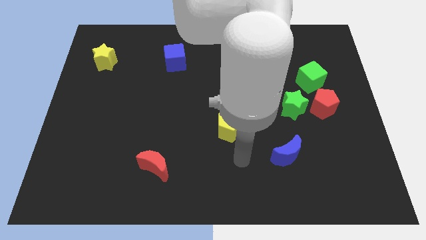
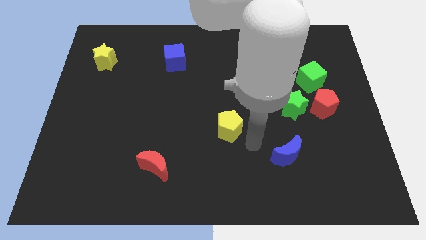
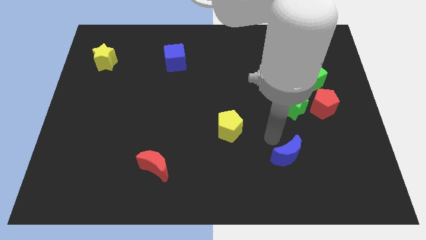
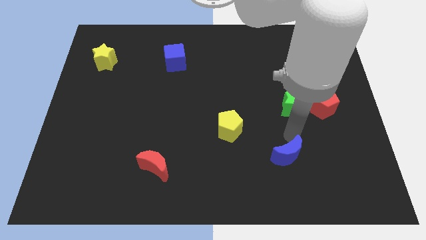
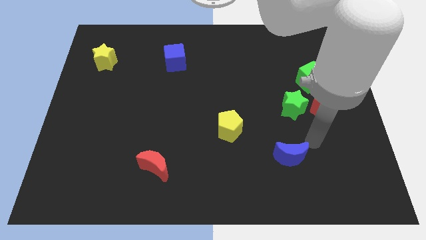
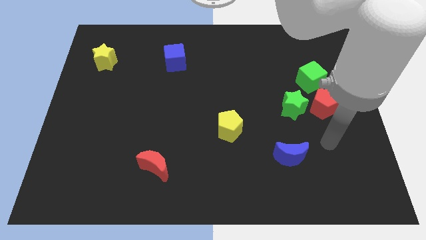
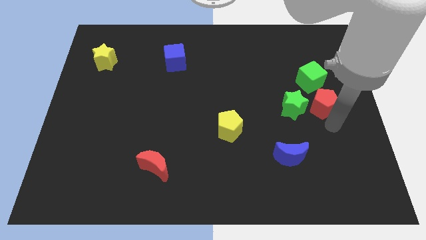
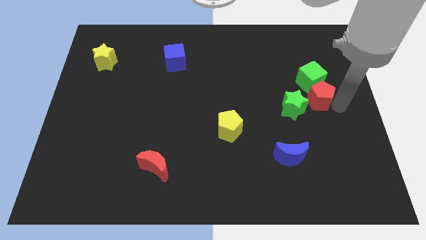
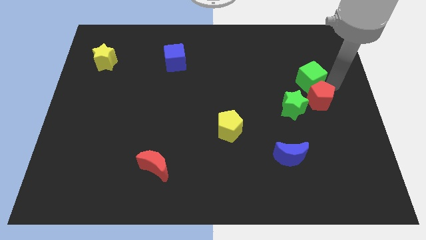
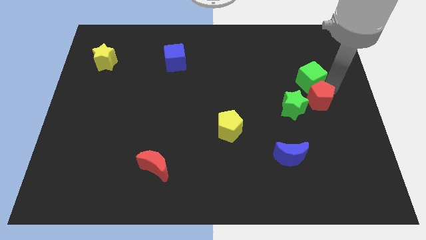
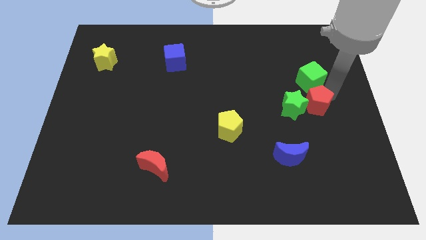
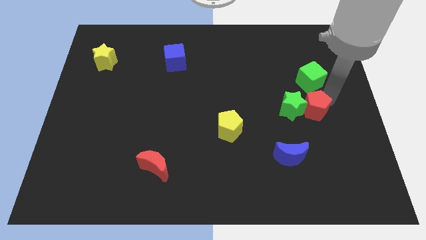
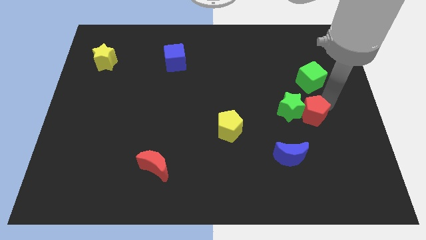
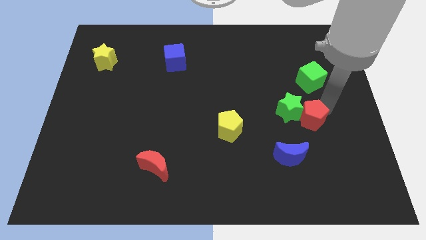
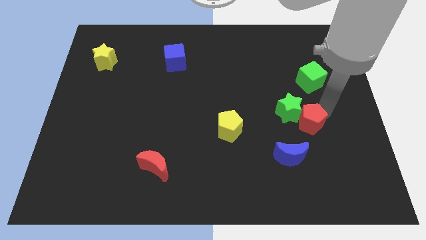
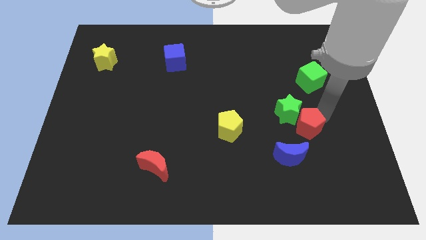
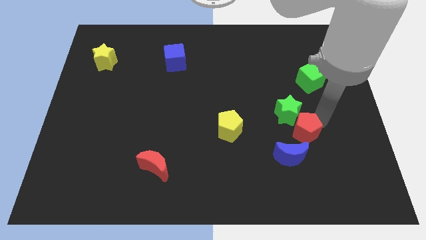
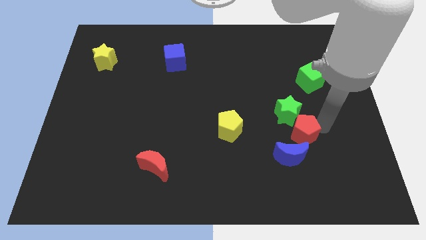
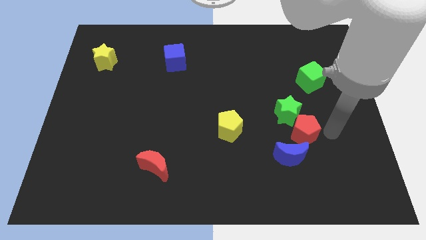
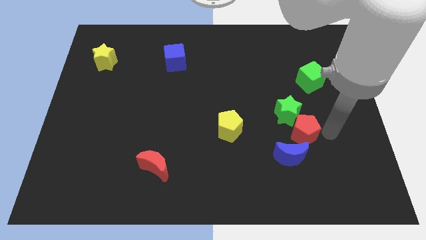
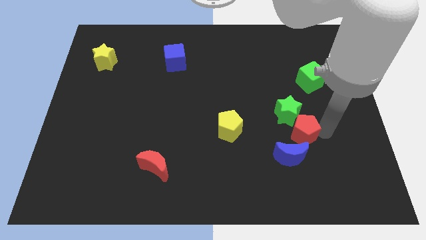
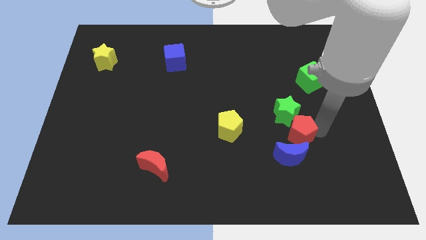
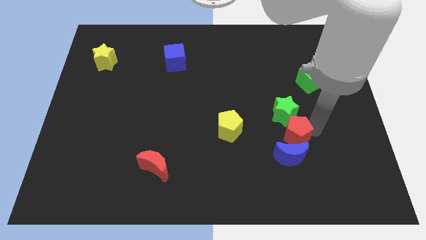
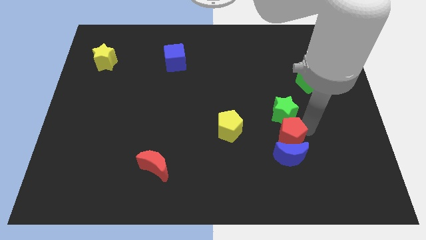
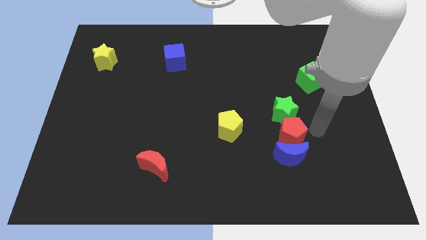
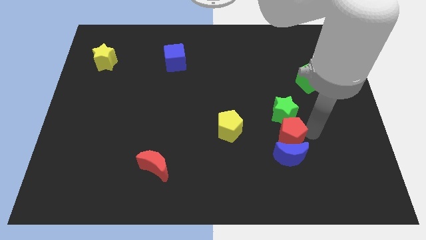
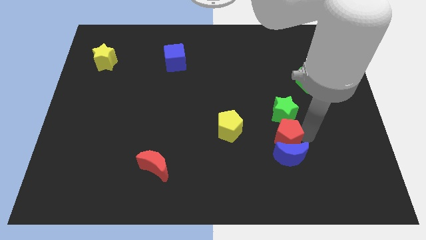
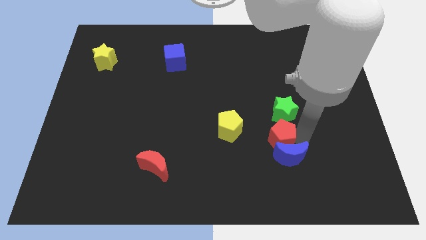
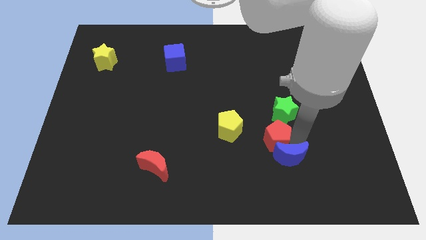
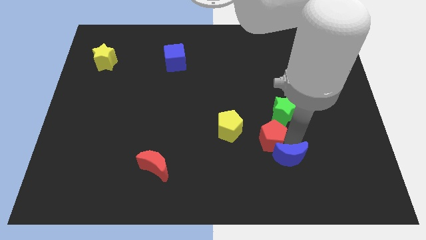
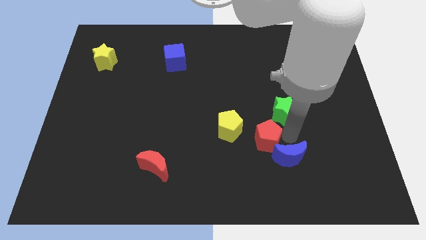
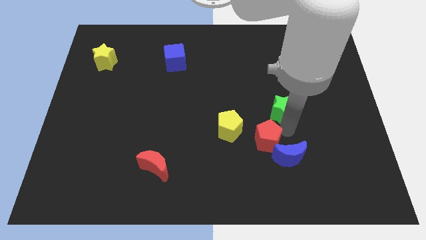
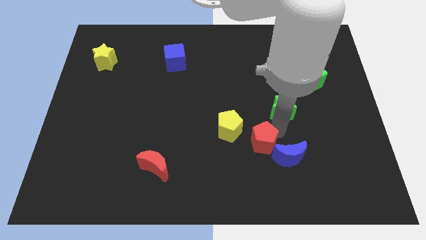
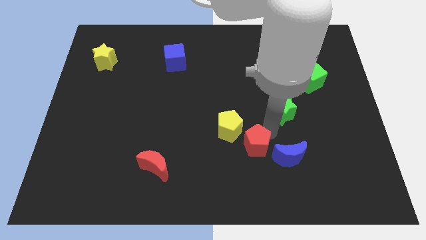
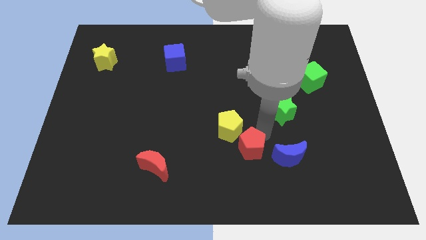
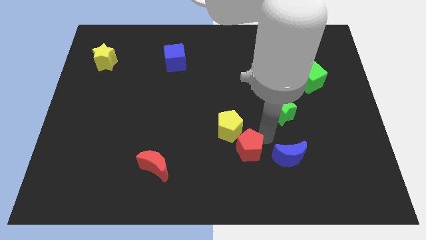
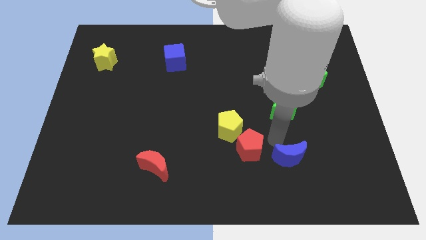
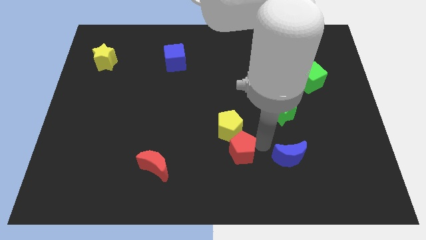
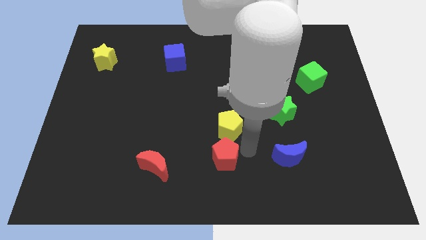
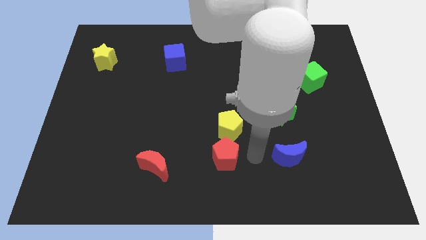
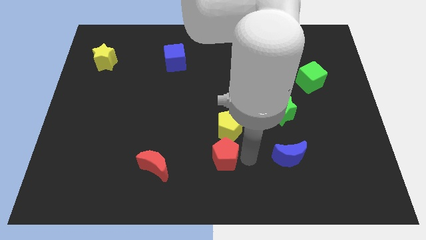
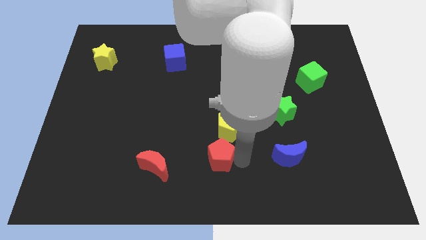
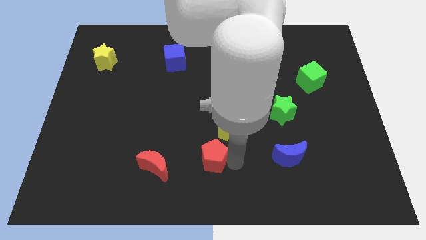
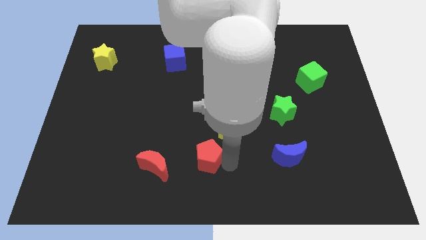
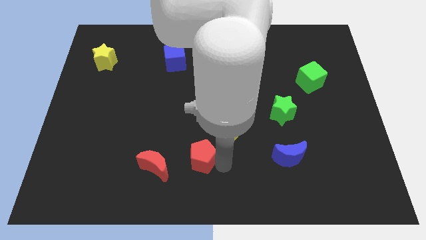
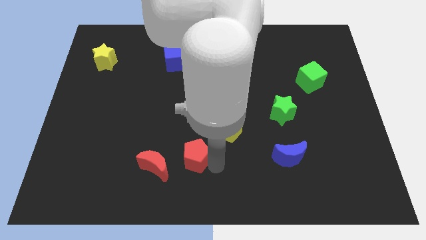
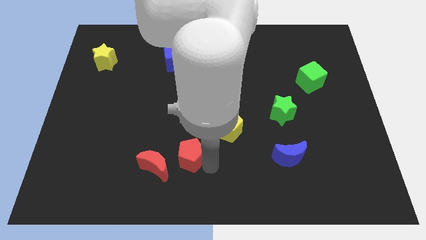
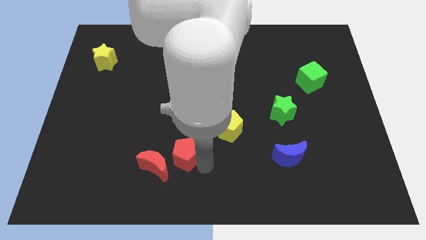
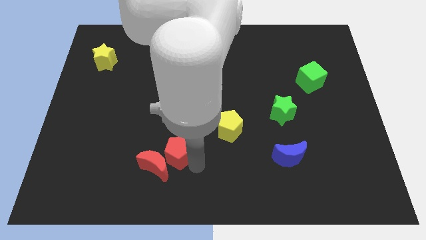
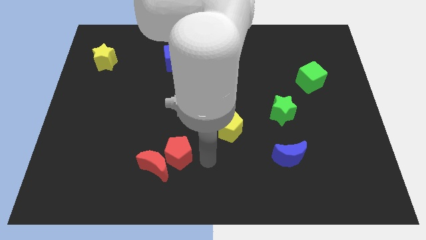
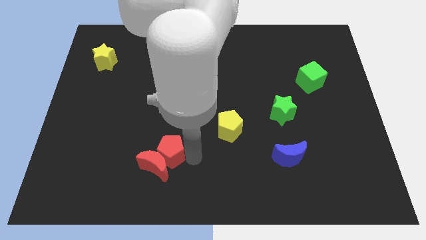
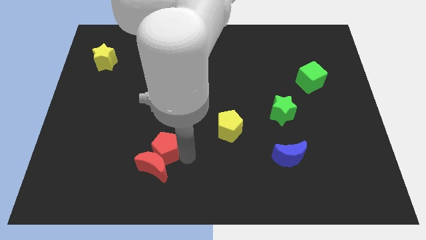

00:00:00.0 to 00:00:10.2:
put the red pentagon to the top left of the red moon

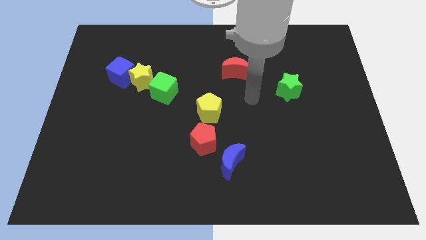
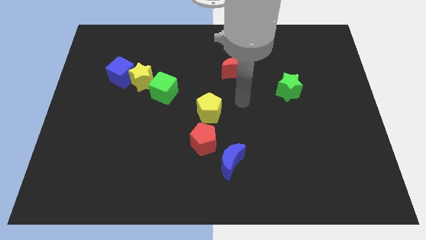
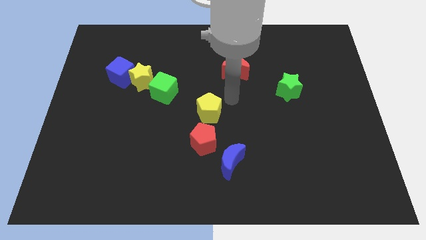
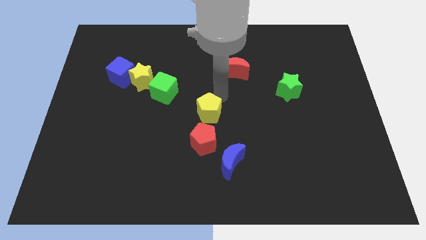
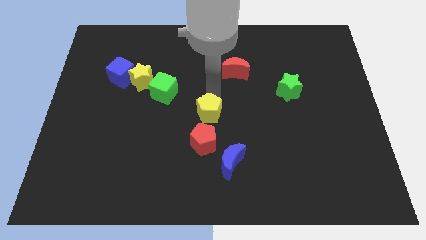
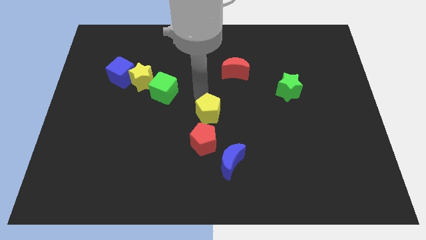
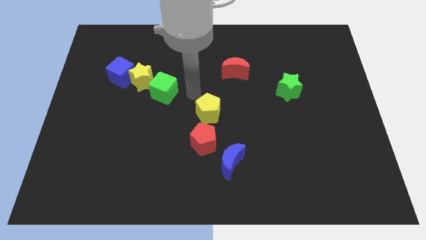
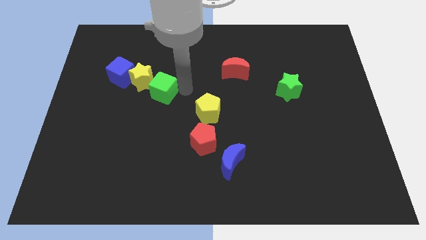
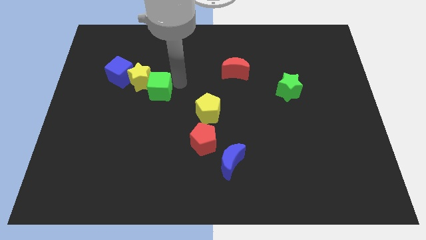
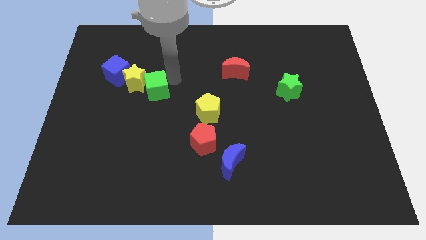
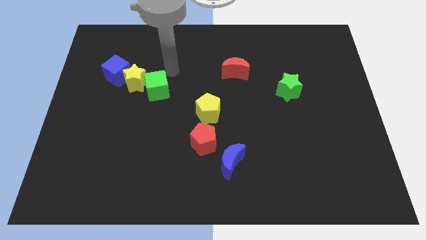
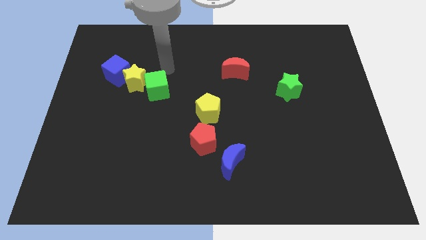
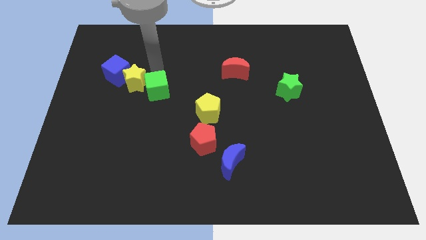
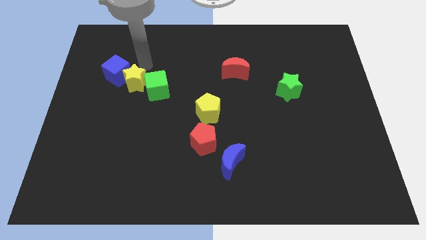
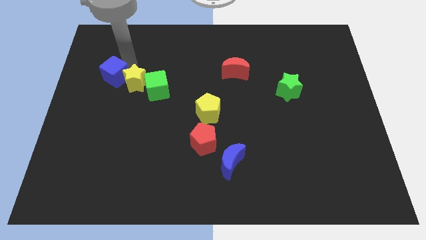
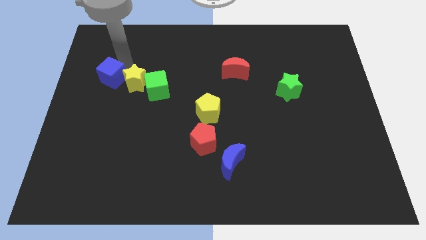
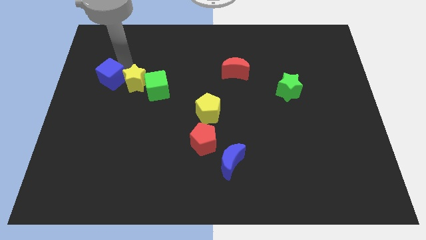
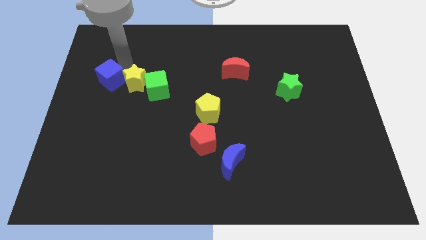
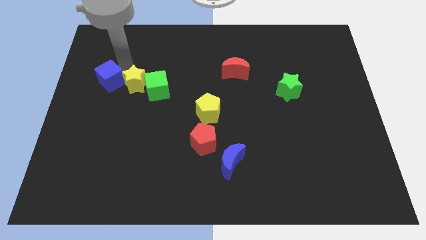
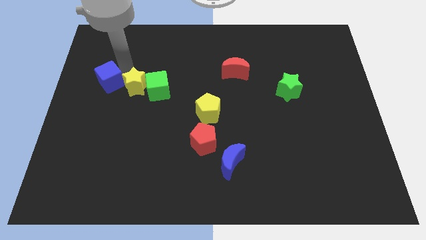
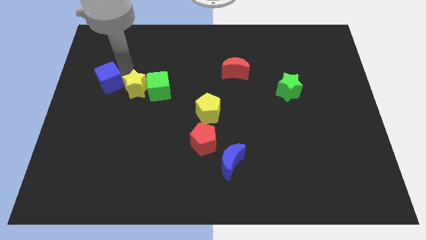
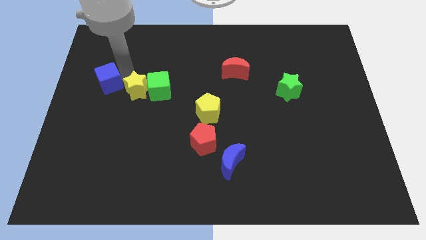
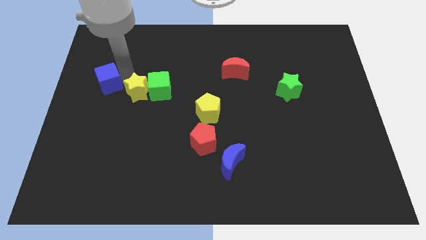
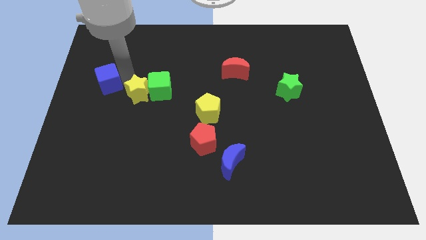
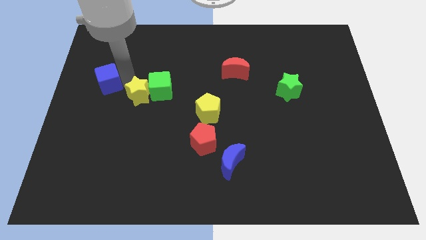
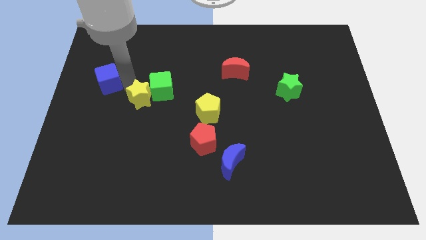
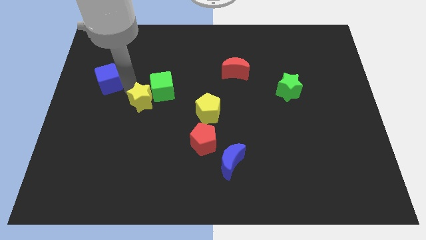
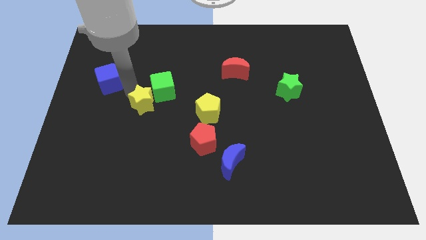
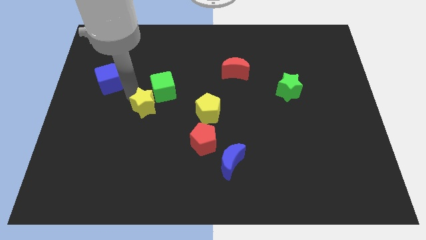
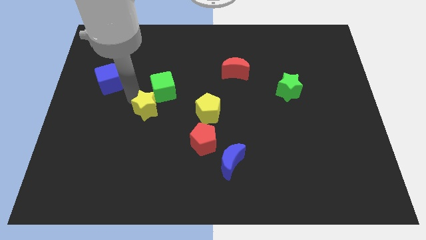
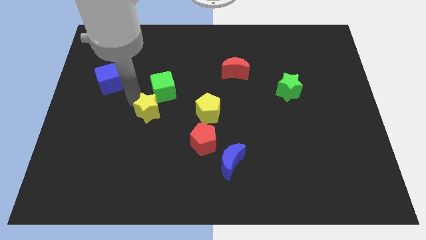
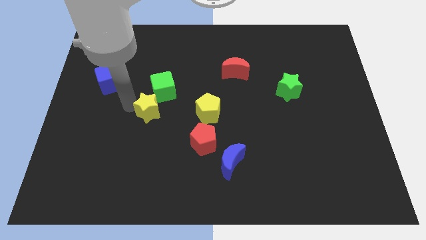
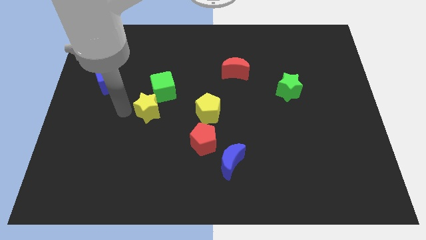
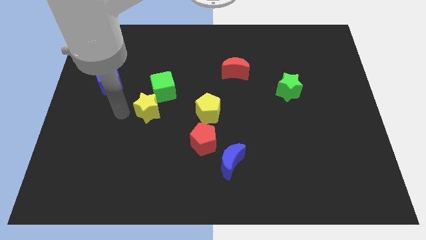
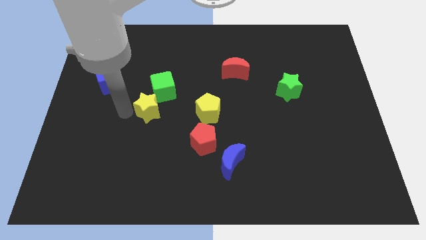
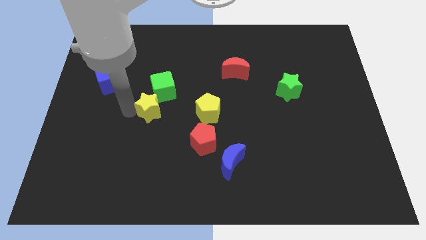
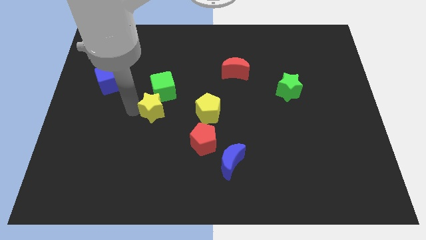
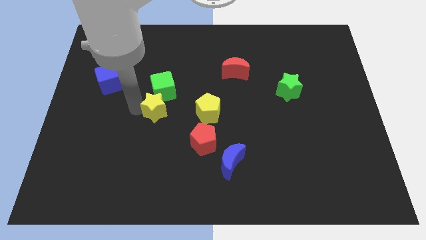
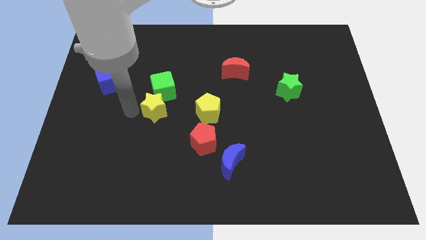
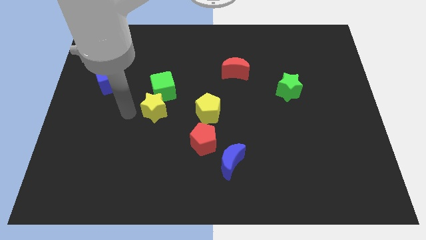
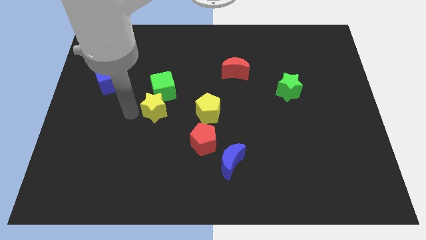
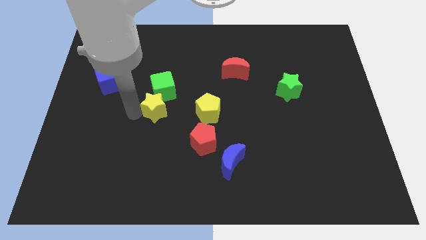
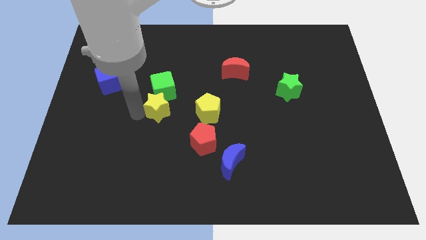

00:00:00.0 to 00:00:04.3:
push the yellow star diagonally down and to the right of the green cube
